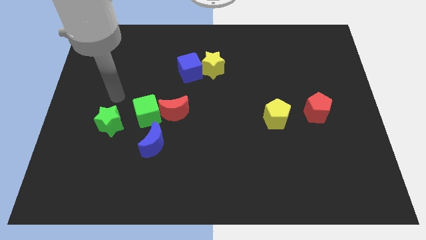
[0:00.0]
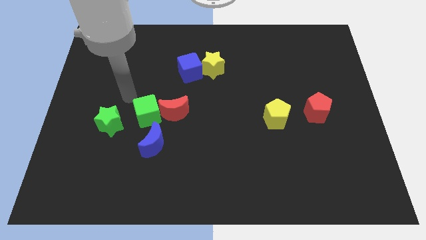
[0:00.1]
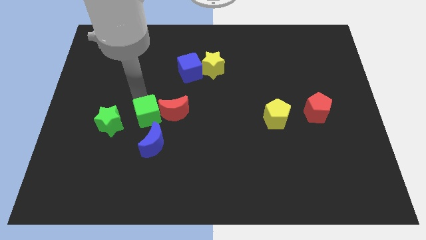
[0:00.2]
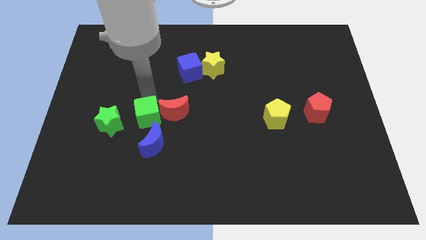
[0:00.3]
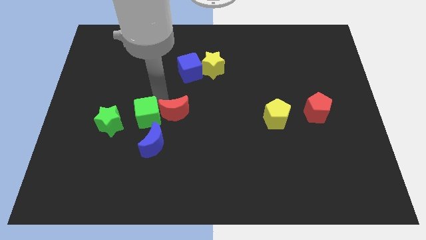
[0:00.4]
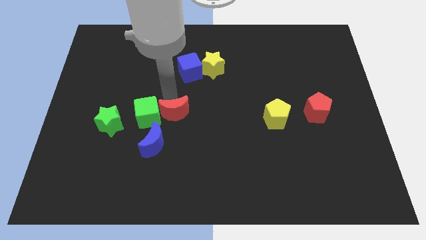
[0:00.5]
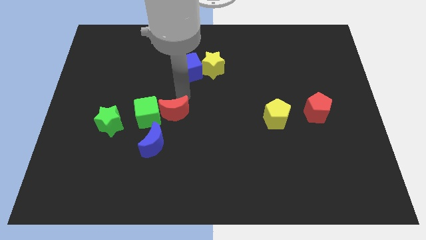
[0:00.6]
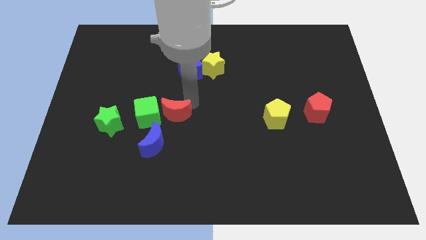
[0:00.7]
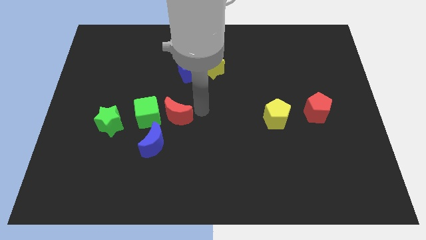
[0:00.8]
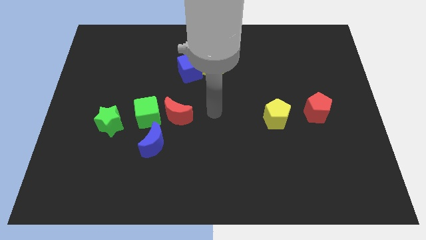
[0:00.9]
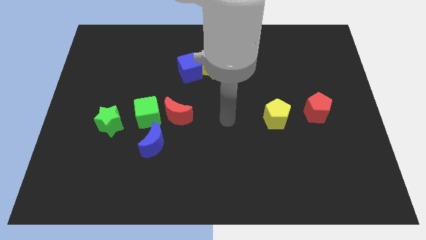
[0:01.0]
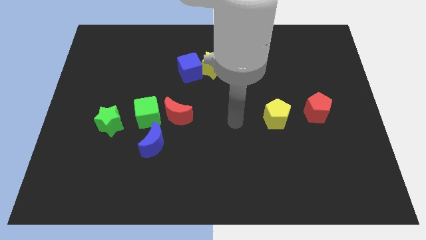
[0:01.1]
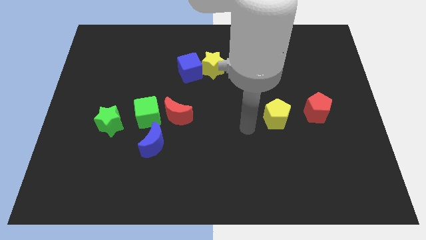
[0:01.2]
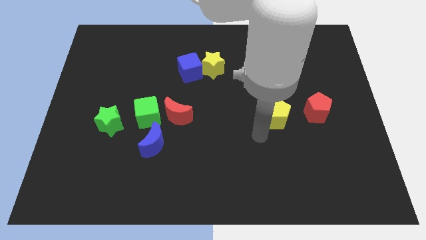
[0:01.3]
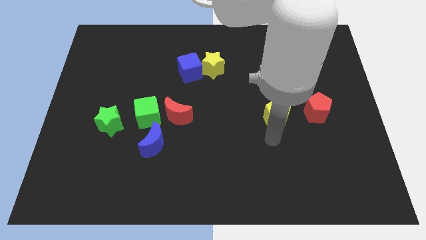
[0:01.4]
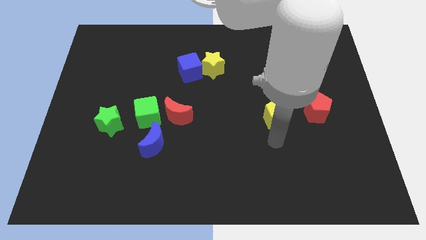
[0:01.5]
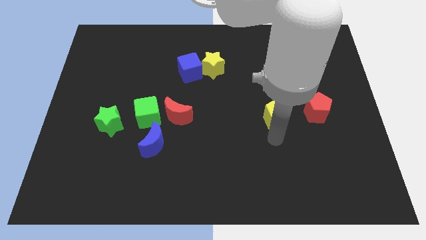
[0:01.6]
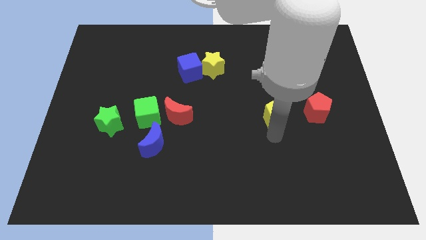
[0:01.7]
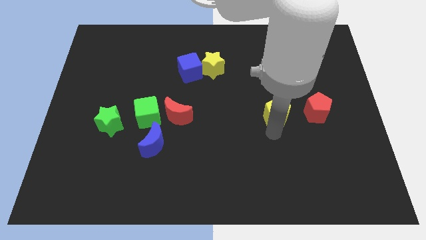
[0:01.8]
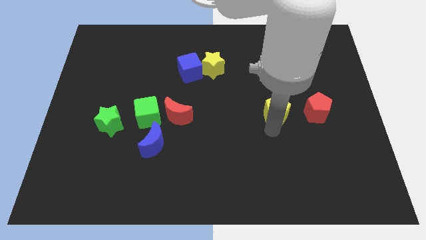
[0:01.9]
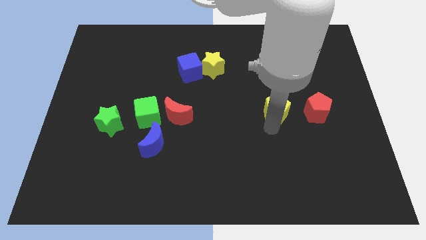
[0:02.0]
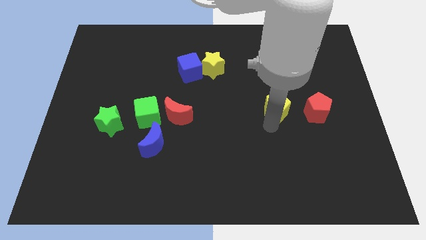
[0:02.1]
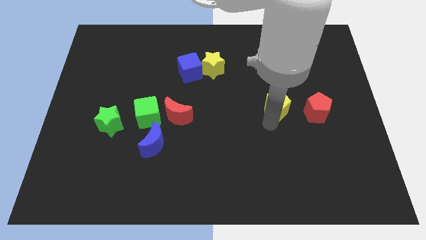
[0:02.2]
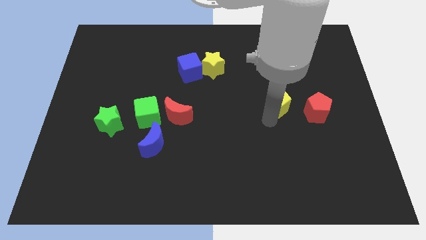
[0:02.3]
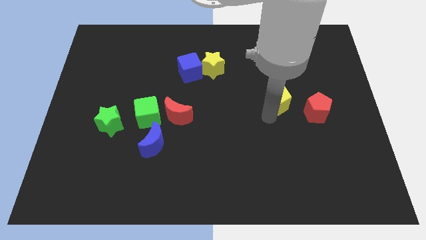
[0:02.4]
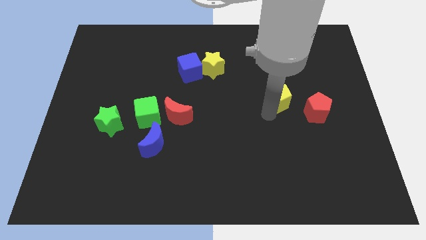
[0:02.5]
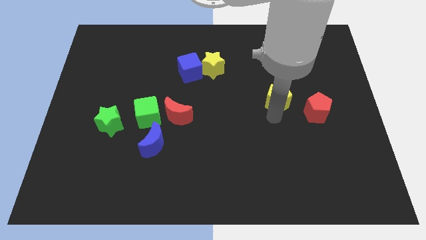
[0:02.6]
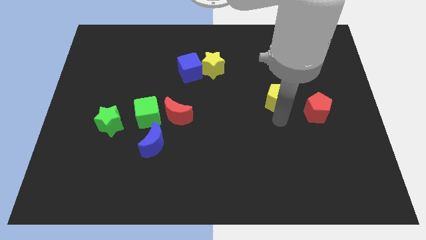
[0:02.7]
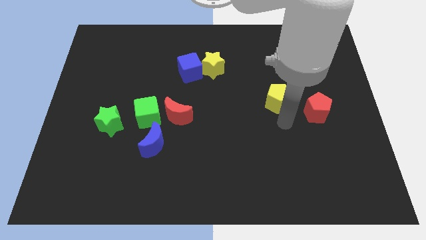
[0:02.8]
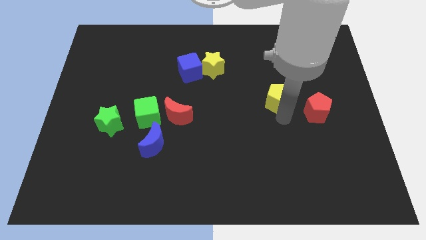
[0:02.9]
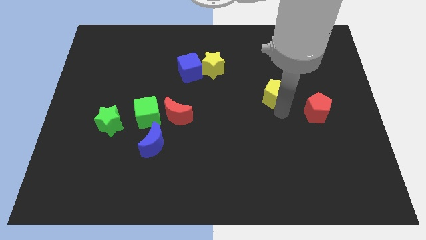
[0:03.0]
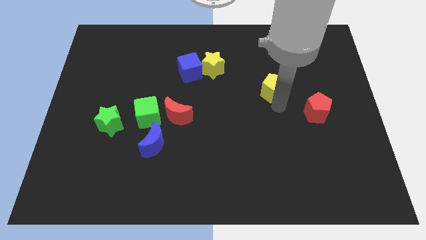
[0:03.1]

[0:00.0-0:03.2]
move the yellow pentagon slightly up

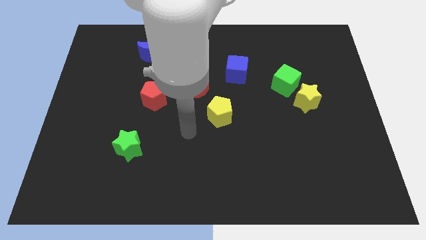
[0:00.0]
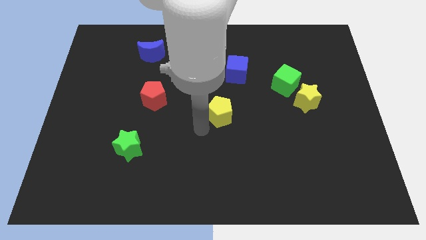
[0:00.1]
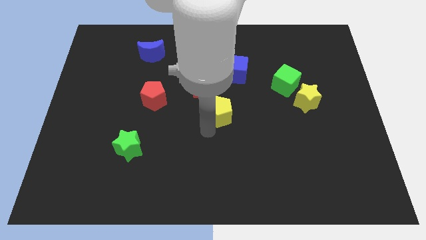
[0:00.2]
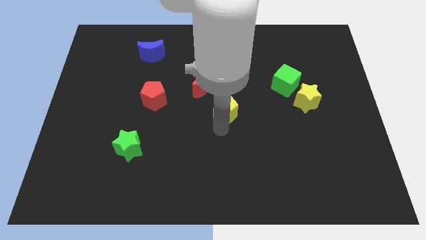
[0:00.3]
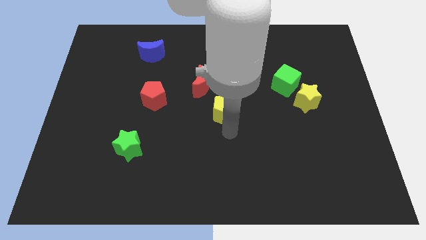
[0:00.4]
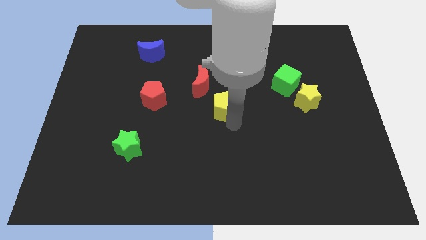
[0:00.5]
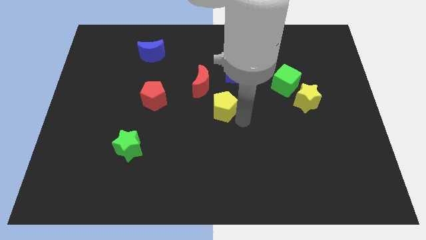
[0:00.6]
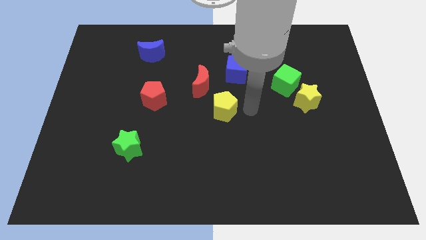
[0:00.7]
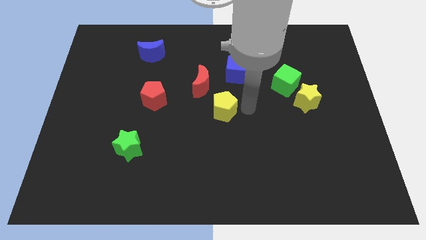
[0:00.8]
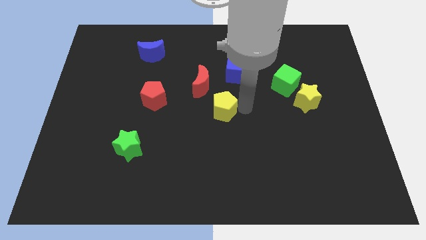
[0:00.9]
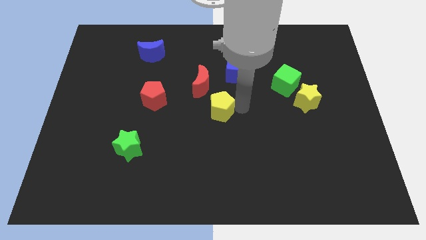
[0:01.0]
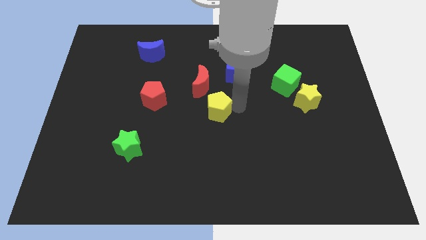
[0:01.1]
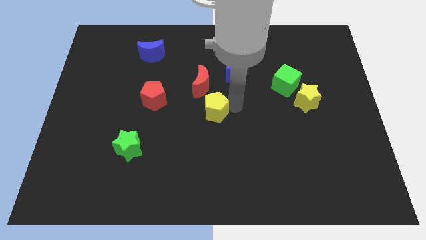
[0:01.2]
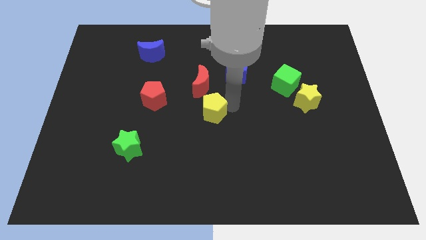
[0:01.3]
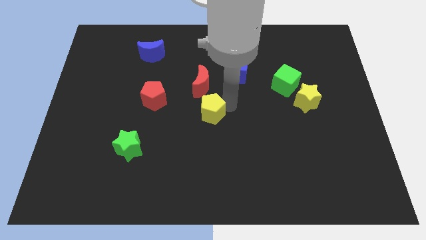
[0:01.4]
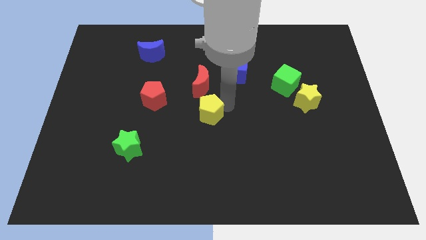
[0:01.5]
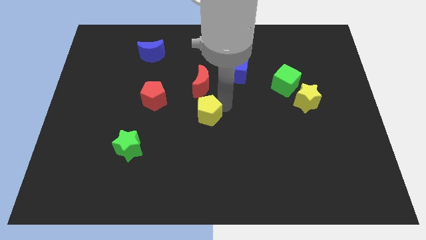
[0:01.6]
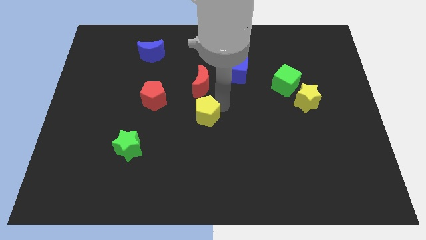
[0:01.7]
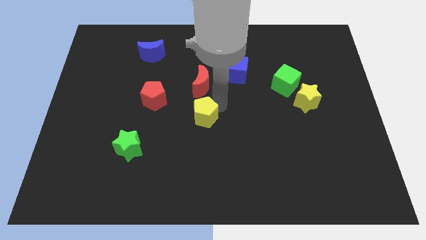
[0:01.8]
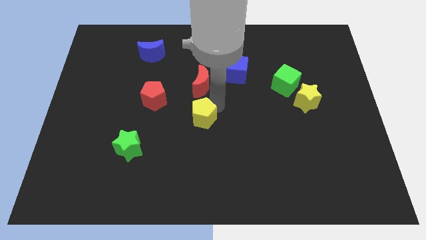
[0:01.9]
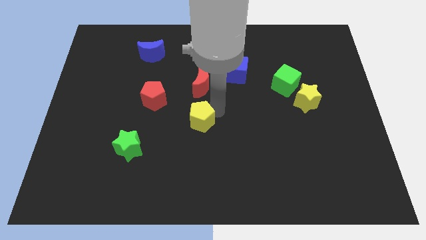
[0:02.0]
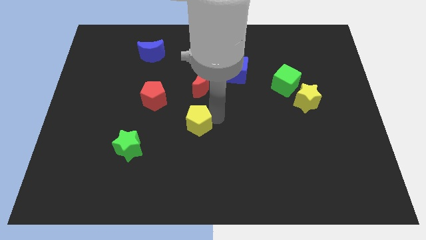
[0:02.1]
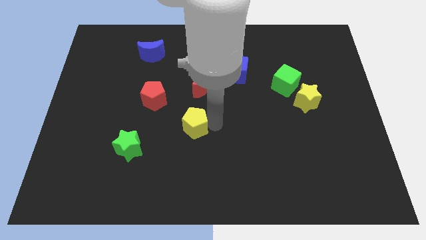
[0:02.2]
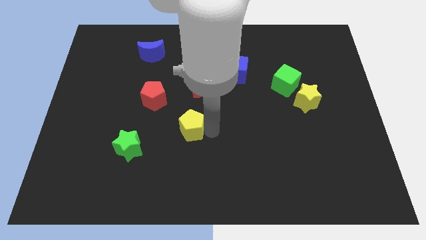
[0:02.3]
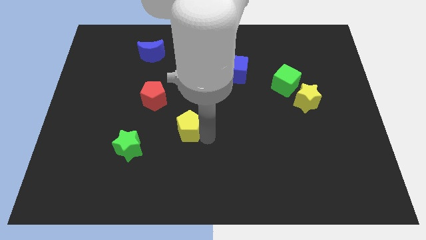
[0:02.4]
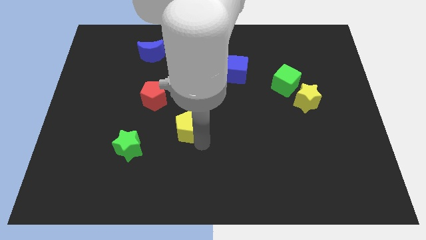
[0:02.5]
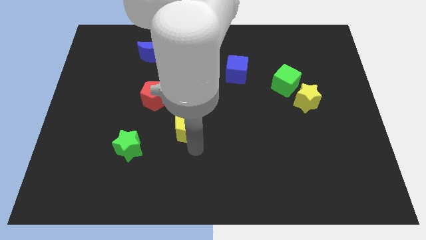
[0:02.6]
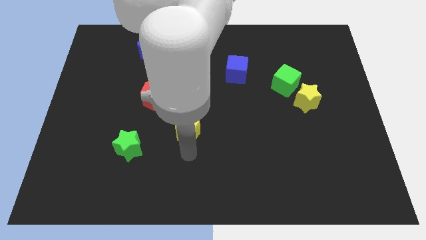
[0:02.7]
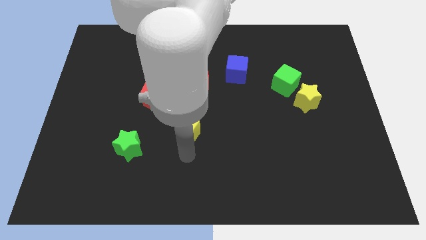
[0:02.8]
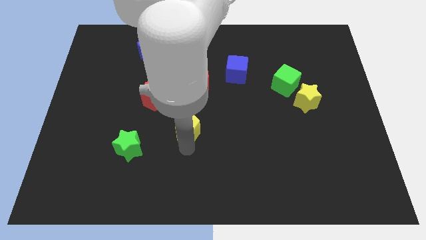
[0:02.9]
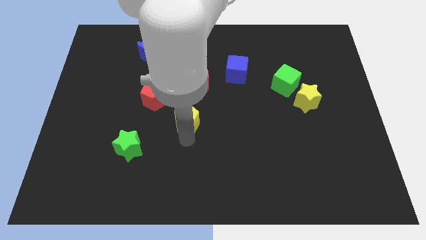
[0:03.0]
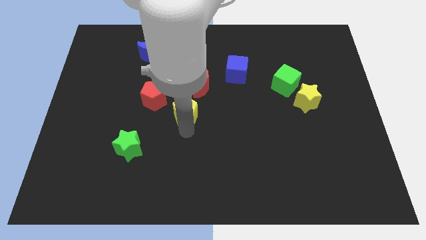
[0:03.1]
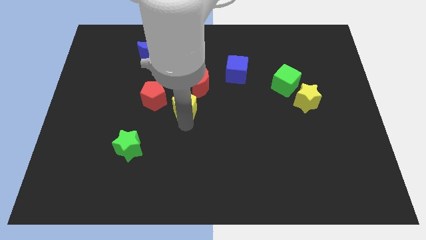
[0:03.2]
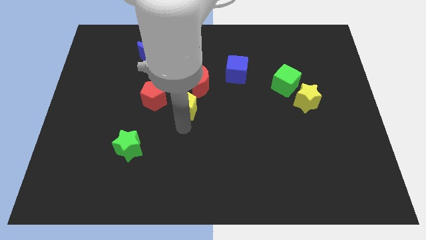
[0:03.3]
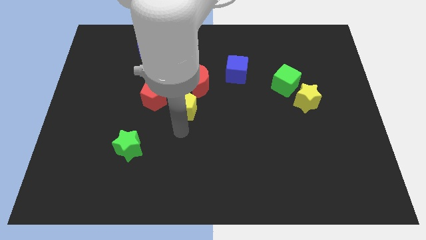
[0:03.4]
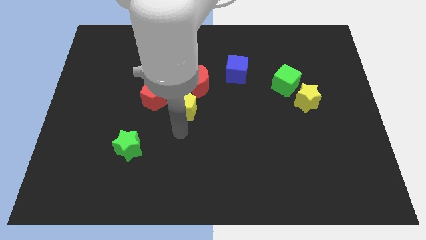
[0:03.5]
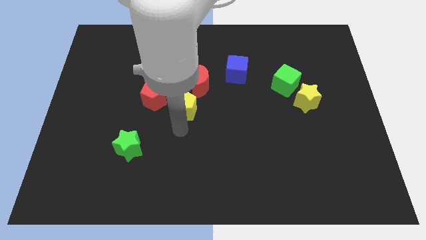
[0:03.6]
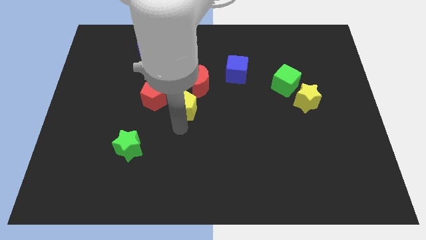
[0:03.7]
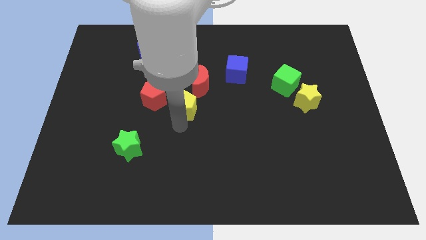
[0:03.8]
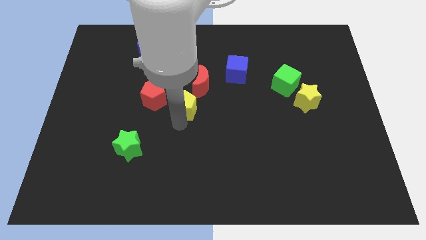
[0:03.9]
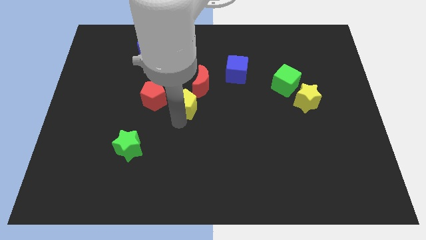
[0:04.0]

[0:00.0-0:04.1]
push the yellow pentagon slightly upwards and left diagonally

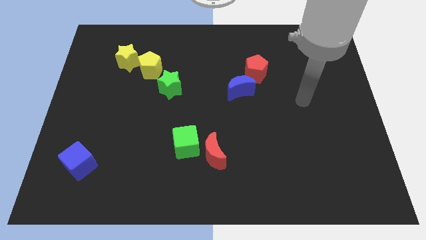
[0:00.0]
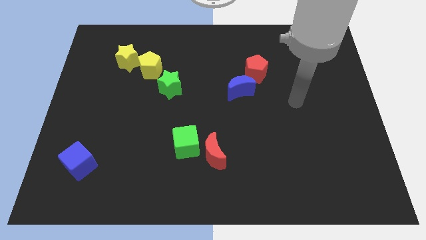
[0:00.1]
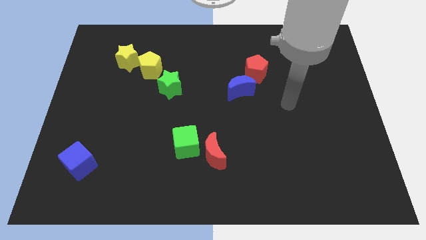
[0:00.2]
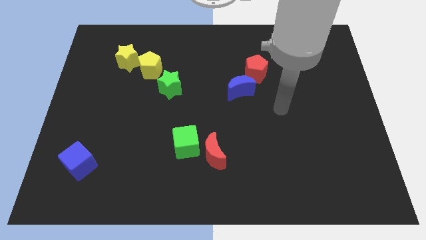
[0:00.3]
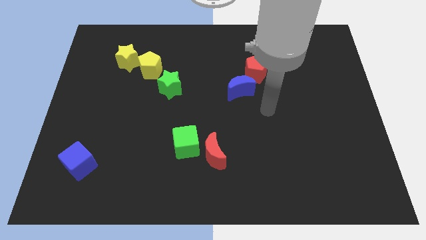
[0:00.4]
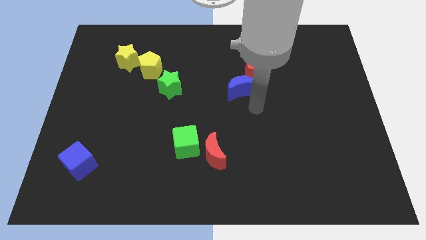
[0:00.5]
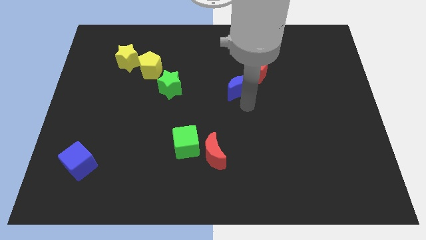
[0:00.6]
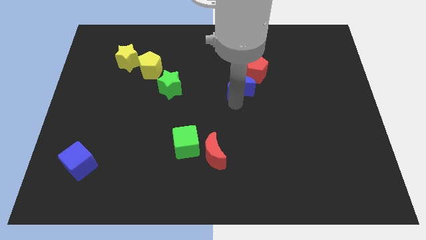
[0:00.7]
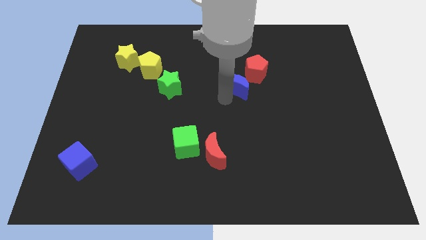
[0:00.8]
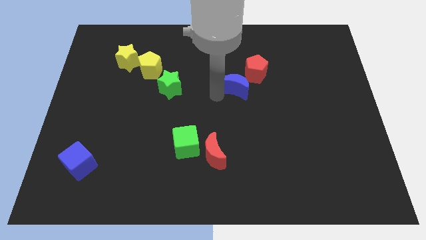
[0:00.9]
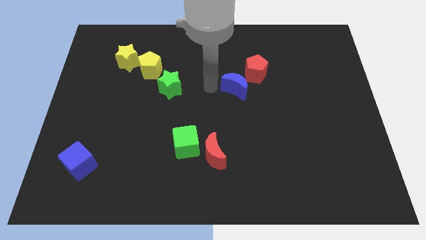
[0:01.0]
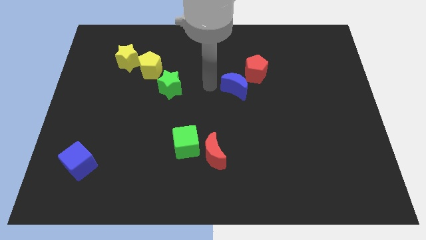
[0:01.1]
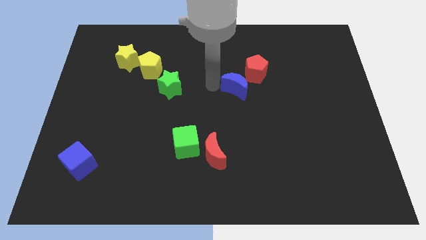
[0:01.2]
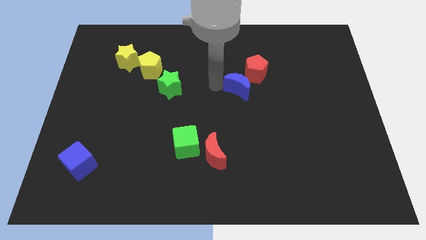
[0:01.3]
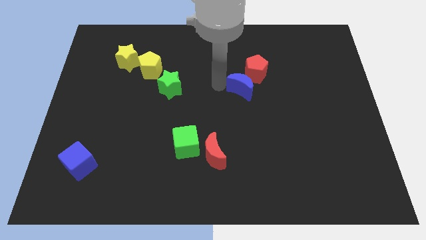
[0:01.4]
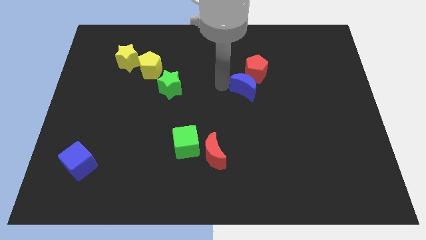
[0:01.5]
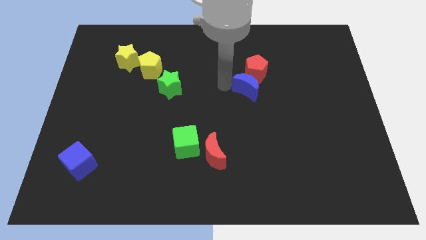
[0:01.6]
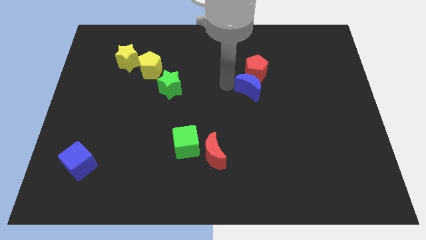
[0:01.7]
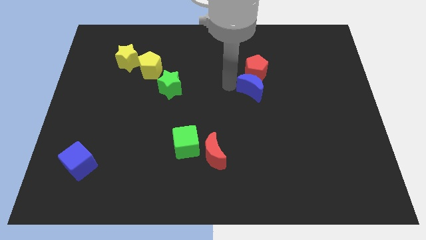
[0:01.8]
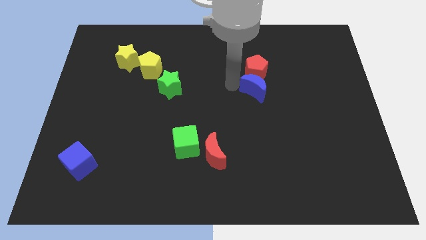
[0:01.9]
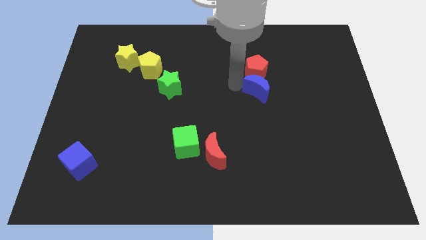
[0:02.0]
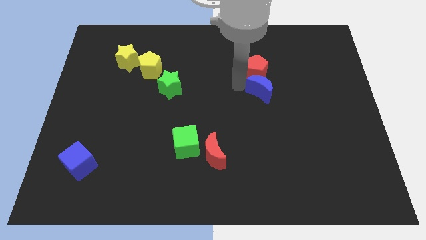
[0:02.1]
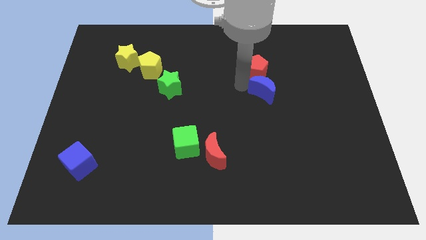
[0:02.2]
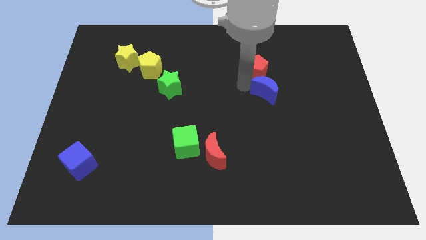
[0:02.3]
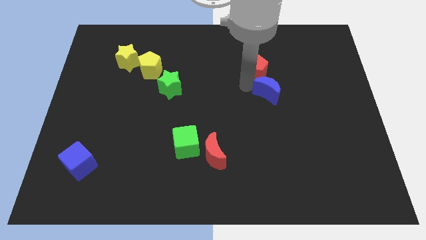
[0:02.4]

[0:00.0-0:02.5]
slightly push the blue moon right
